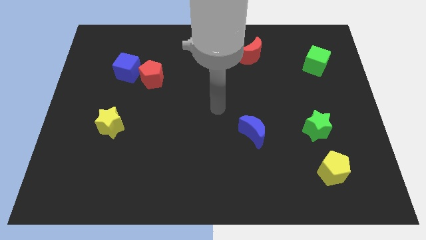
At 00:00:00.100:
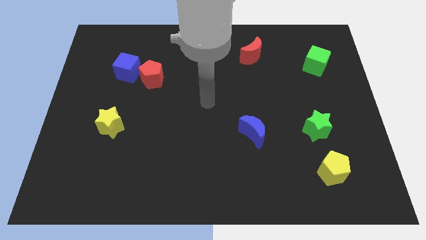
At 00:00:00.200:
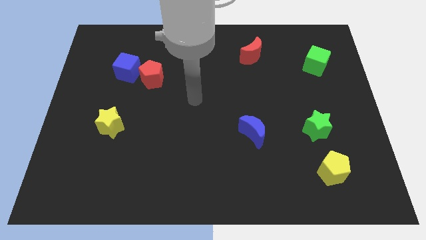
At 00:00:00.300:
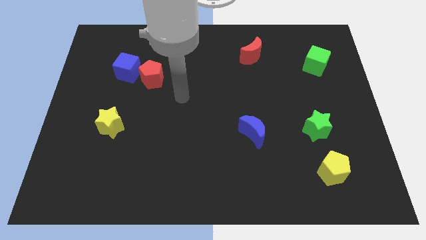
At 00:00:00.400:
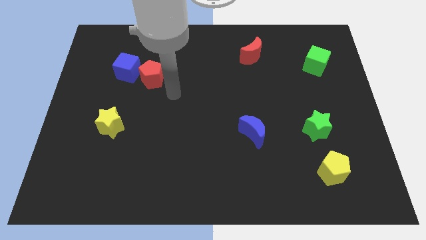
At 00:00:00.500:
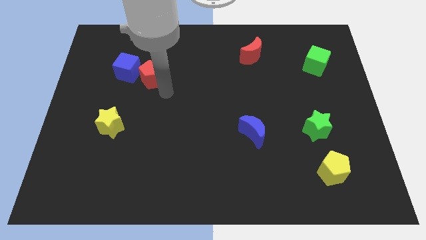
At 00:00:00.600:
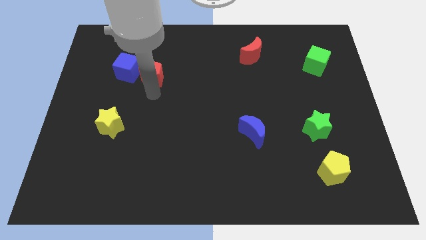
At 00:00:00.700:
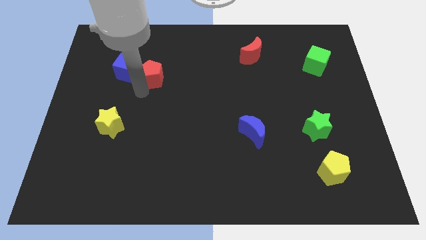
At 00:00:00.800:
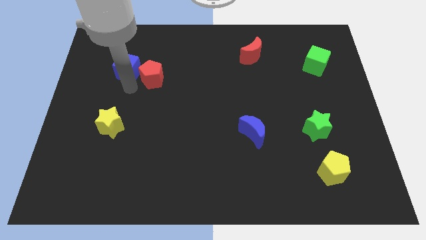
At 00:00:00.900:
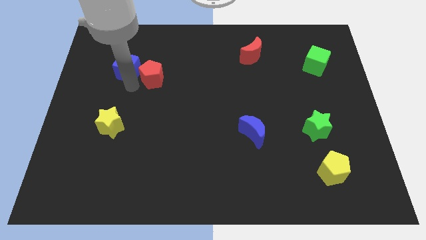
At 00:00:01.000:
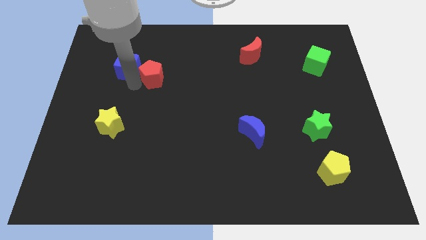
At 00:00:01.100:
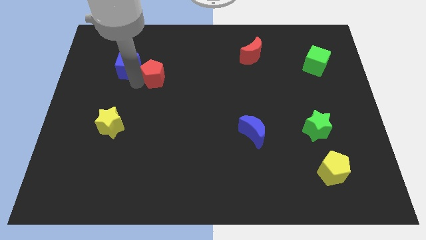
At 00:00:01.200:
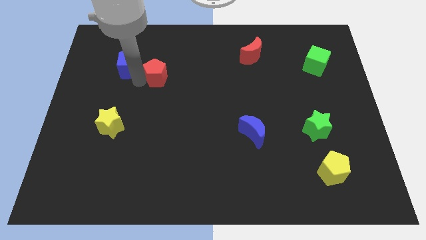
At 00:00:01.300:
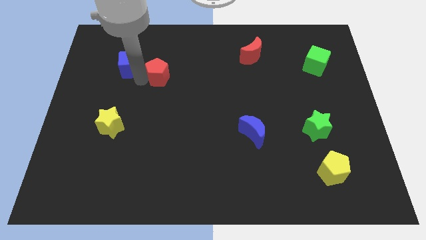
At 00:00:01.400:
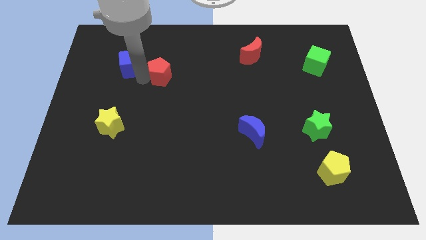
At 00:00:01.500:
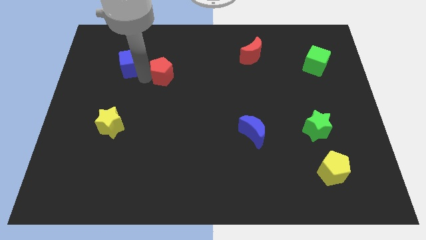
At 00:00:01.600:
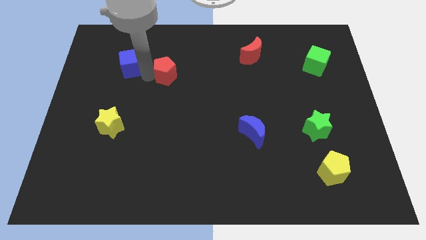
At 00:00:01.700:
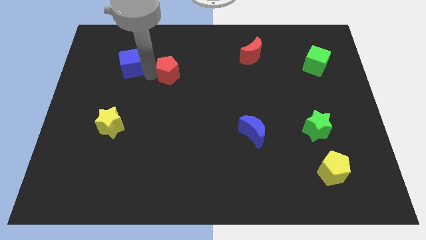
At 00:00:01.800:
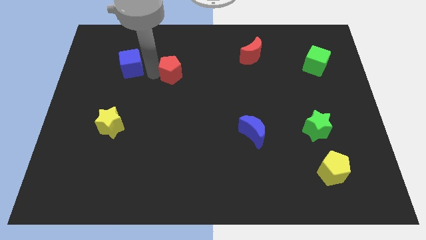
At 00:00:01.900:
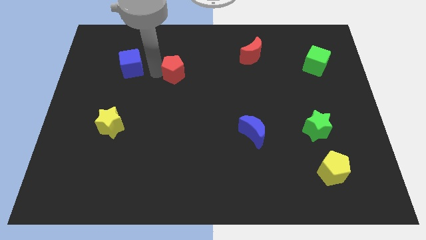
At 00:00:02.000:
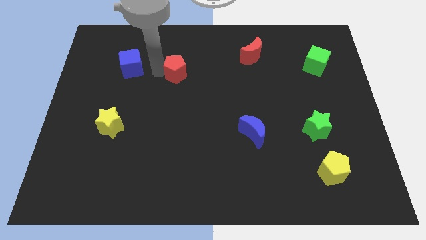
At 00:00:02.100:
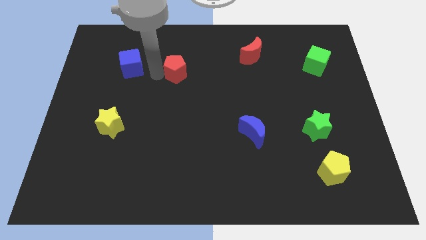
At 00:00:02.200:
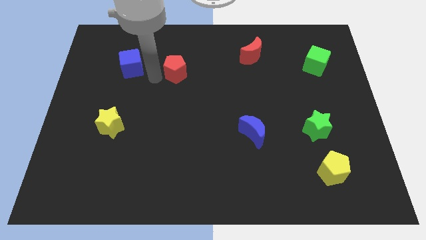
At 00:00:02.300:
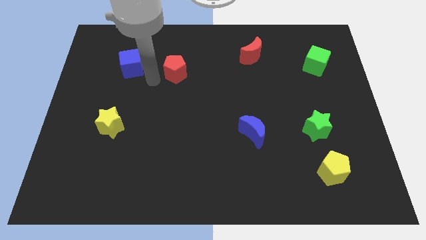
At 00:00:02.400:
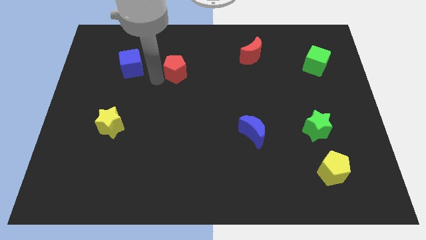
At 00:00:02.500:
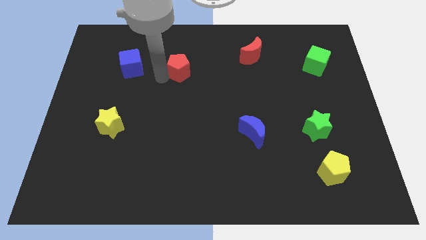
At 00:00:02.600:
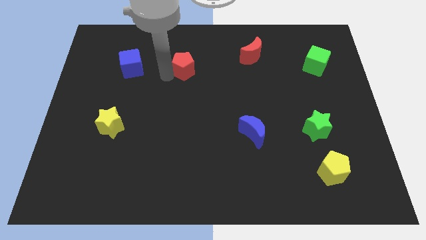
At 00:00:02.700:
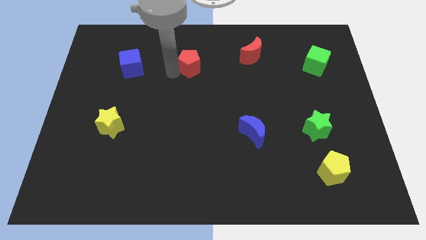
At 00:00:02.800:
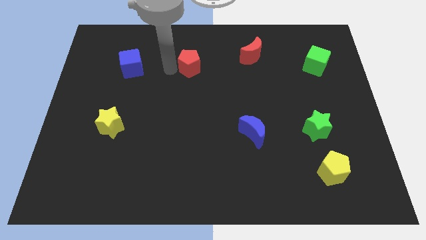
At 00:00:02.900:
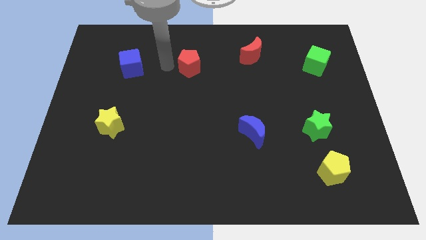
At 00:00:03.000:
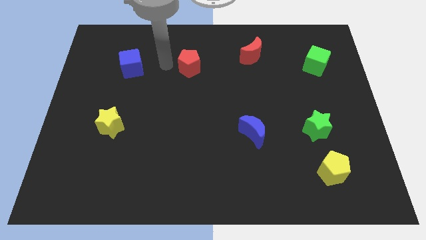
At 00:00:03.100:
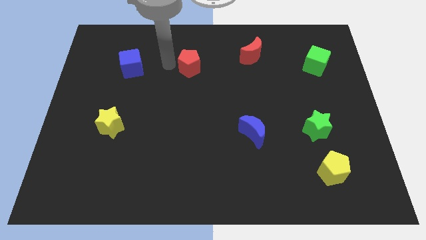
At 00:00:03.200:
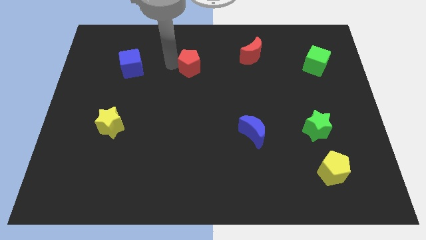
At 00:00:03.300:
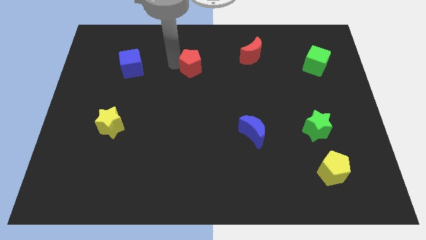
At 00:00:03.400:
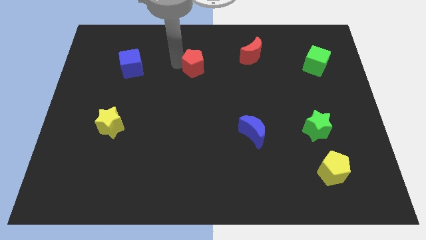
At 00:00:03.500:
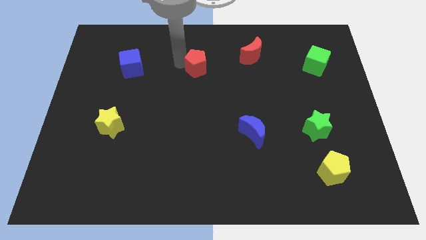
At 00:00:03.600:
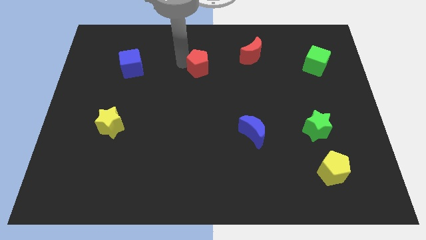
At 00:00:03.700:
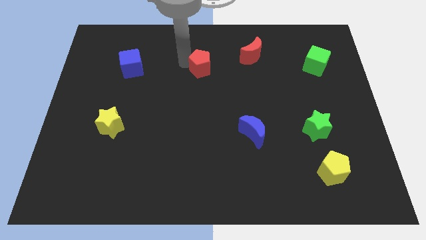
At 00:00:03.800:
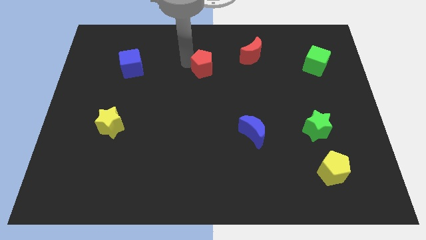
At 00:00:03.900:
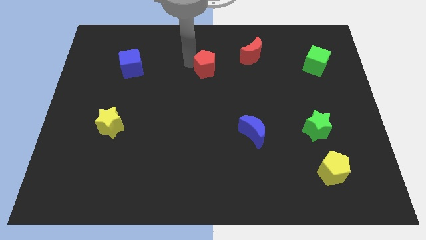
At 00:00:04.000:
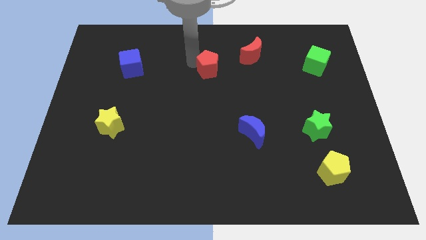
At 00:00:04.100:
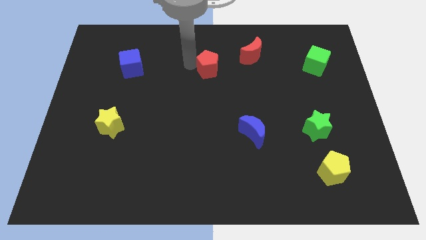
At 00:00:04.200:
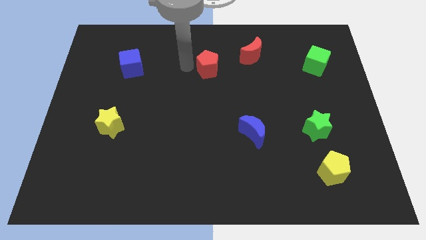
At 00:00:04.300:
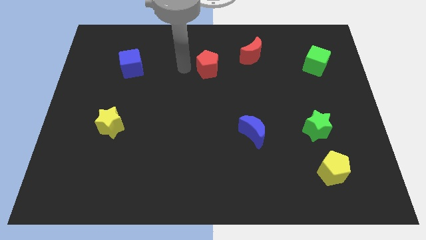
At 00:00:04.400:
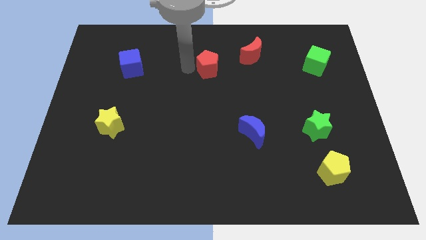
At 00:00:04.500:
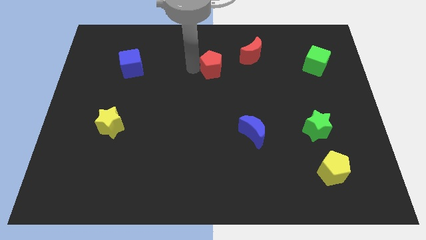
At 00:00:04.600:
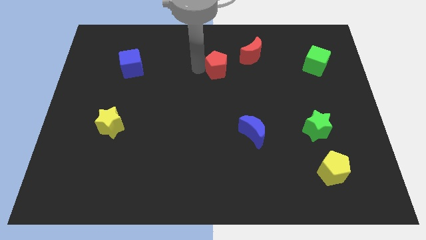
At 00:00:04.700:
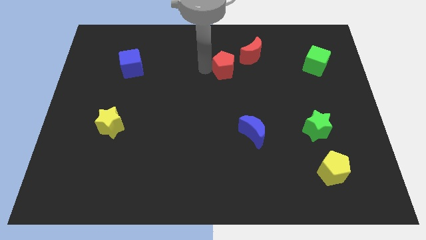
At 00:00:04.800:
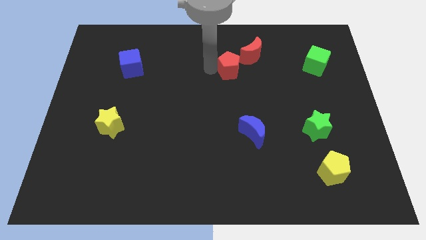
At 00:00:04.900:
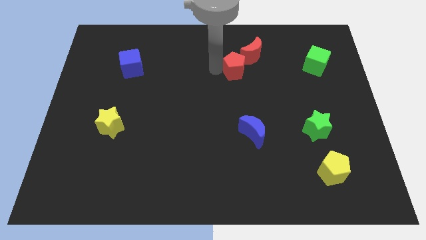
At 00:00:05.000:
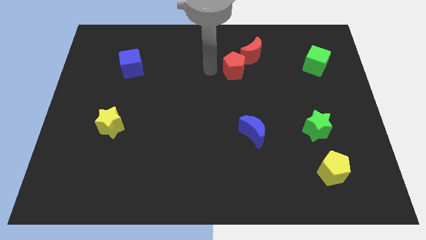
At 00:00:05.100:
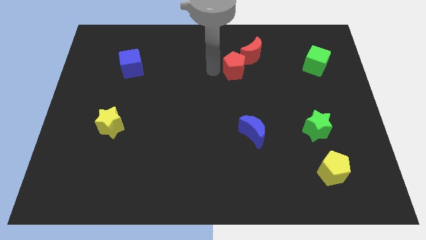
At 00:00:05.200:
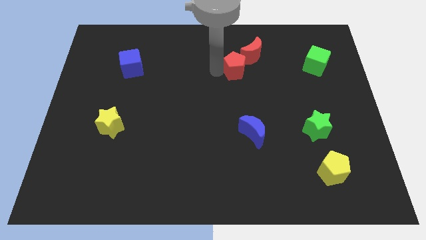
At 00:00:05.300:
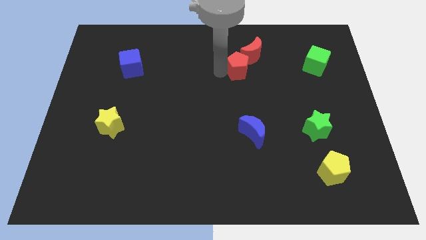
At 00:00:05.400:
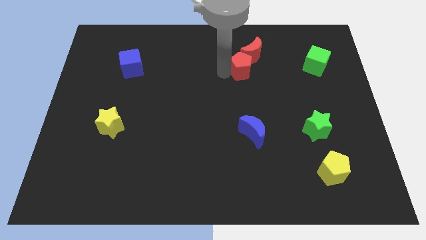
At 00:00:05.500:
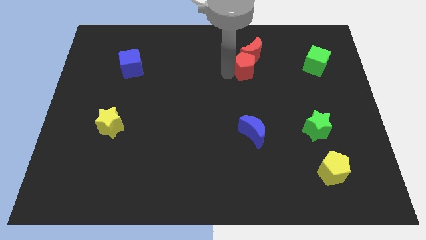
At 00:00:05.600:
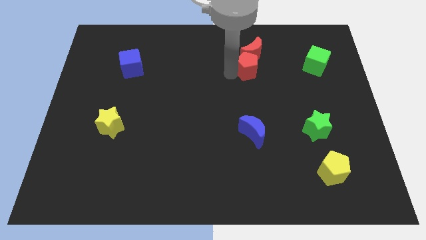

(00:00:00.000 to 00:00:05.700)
push the red pentagon to the bottom right of the red moon
